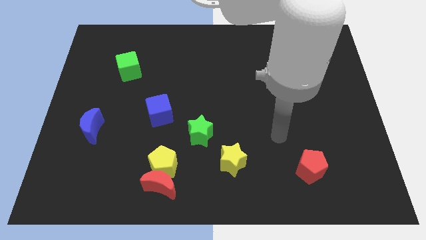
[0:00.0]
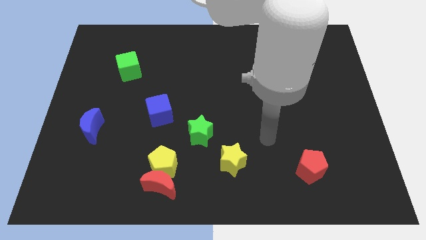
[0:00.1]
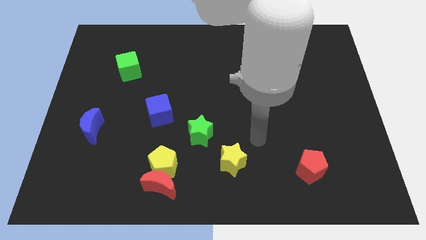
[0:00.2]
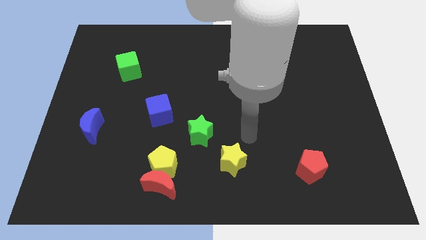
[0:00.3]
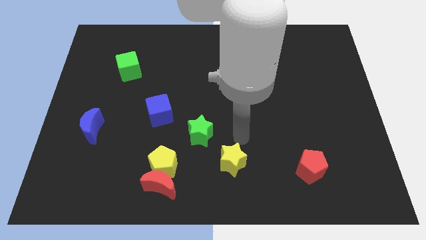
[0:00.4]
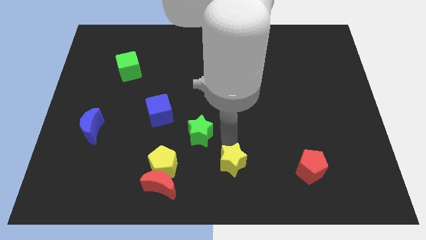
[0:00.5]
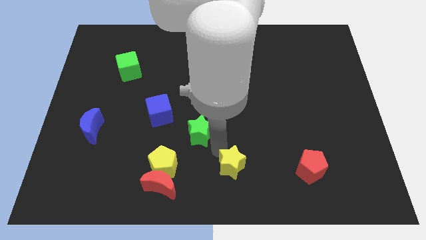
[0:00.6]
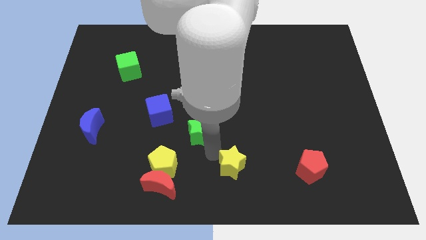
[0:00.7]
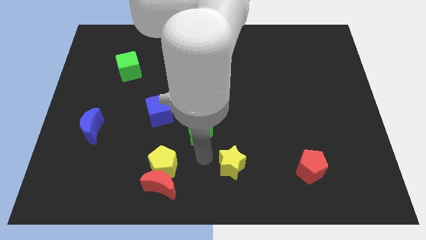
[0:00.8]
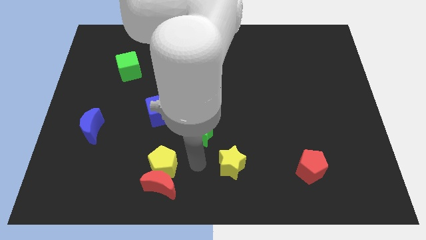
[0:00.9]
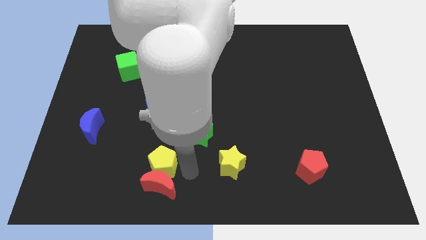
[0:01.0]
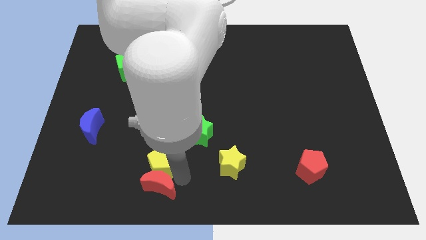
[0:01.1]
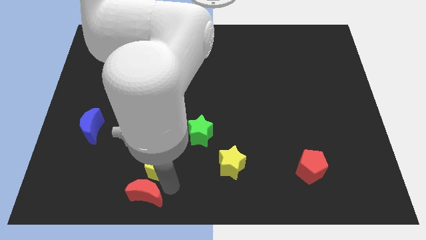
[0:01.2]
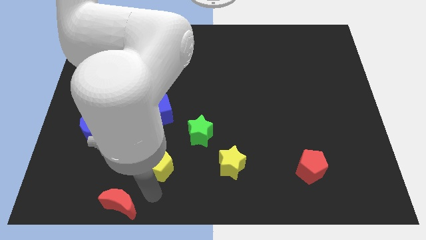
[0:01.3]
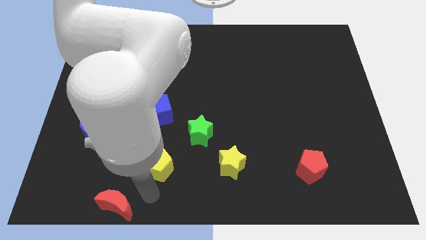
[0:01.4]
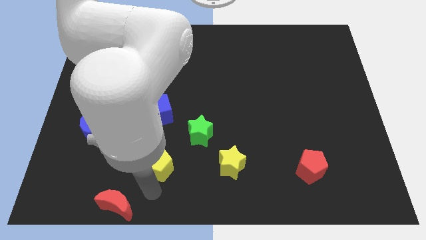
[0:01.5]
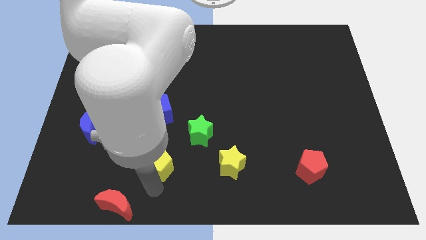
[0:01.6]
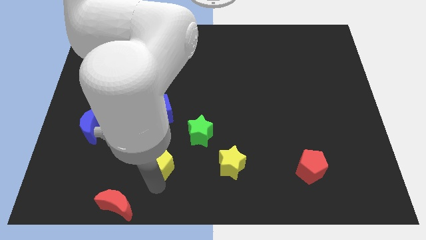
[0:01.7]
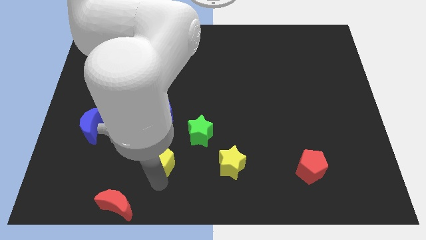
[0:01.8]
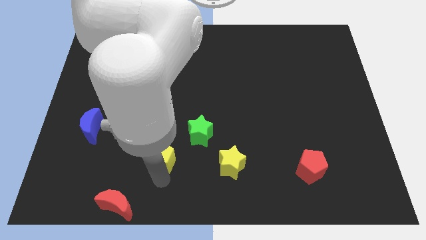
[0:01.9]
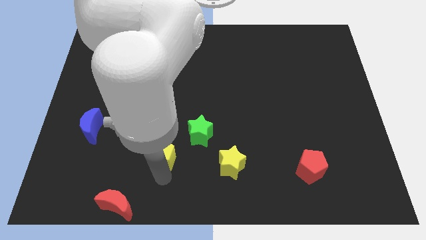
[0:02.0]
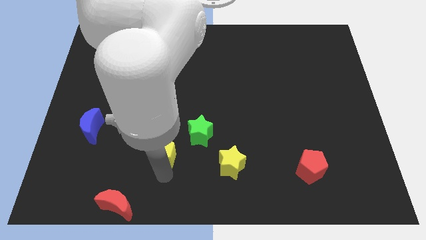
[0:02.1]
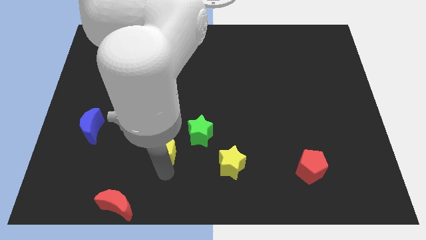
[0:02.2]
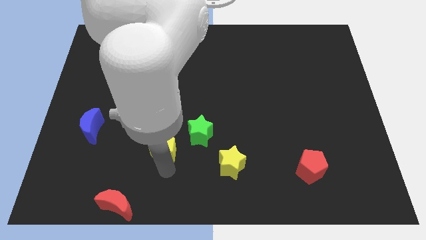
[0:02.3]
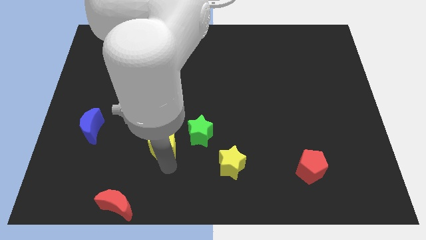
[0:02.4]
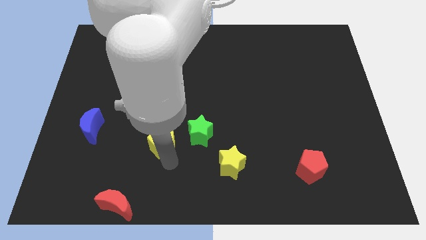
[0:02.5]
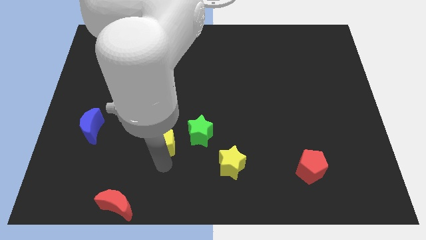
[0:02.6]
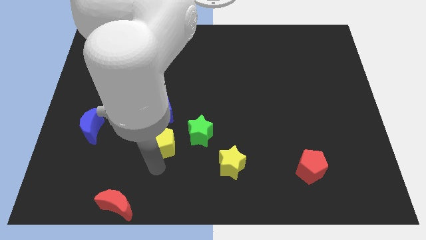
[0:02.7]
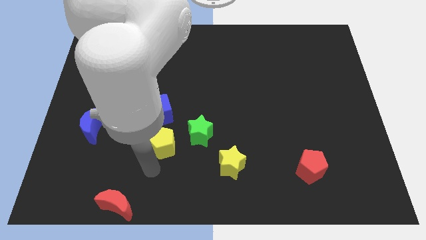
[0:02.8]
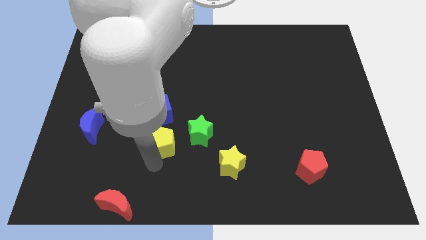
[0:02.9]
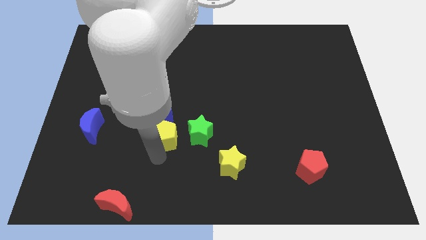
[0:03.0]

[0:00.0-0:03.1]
push the yellow pentagon a little bit upwards

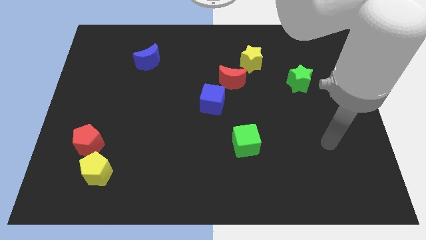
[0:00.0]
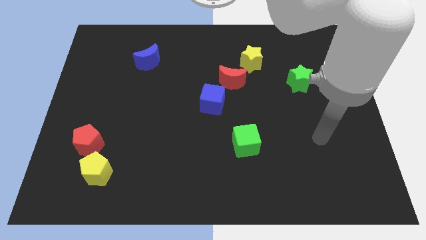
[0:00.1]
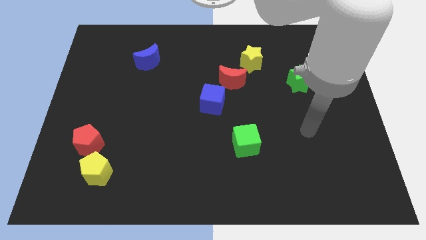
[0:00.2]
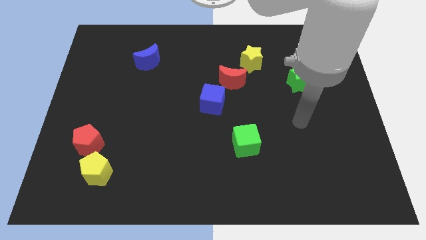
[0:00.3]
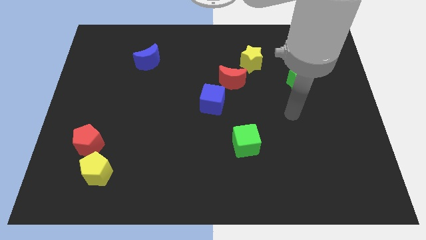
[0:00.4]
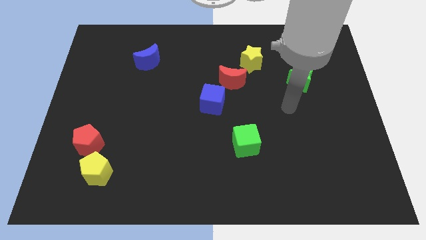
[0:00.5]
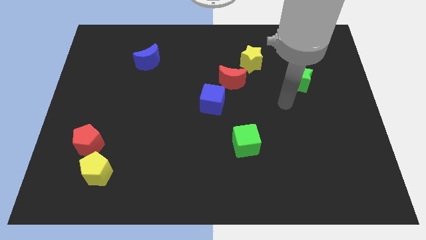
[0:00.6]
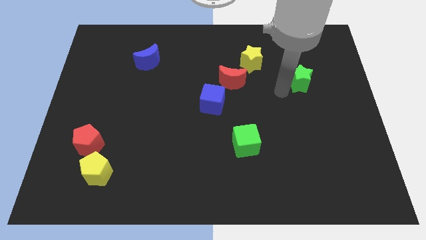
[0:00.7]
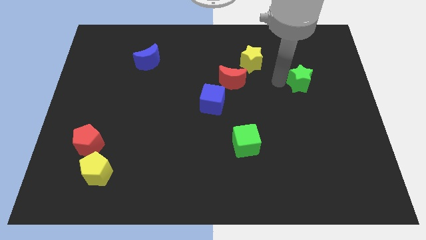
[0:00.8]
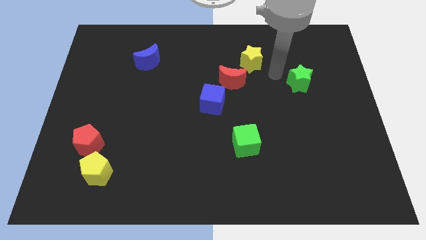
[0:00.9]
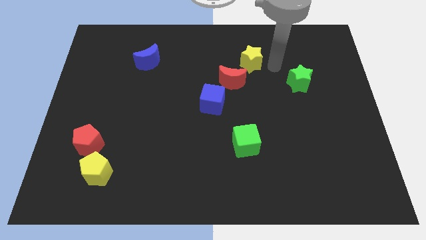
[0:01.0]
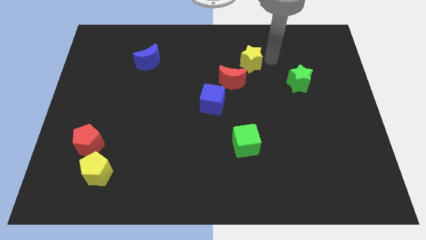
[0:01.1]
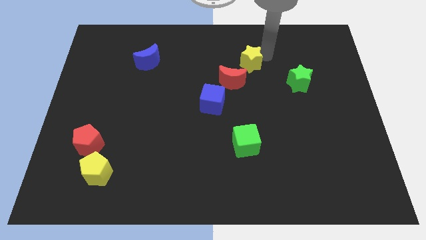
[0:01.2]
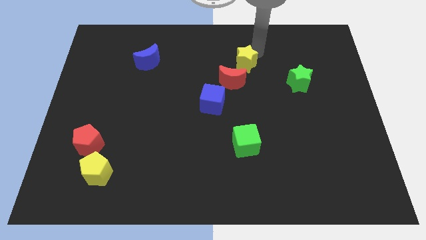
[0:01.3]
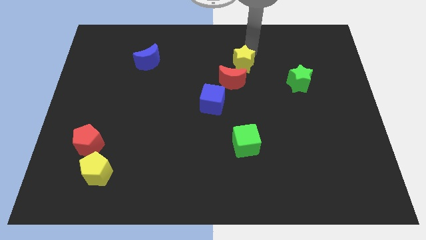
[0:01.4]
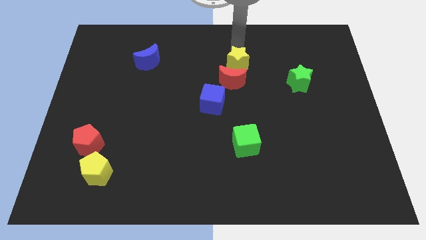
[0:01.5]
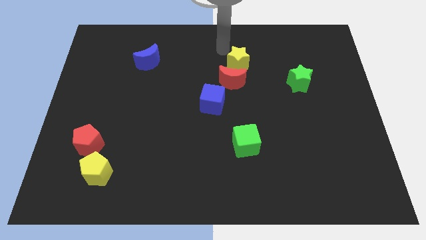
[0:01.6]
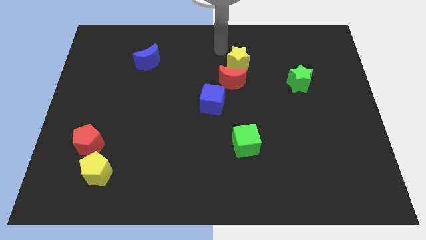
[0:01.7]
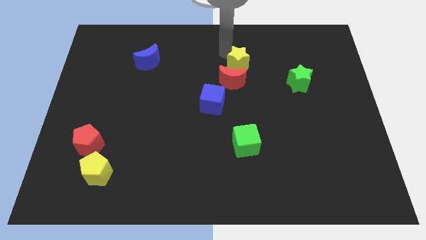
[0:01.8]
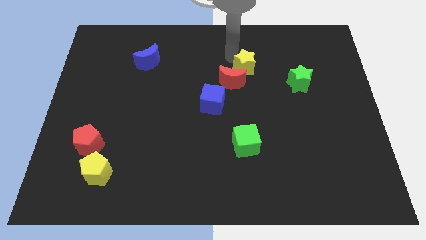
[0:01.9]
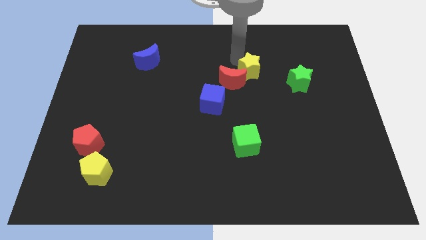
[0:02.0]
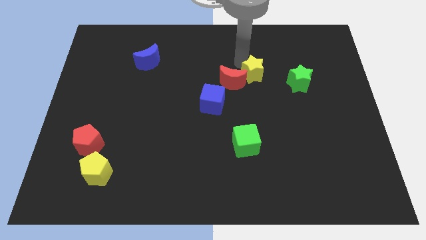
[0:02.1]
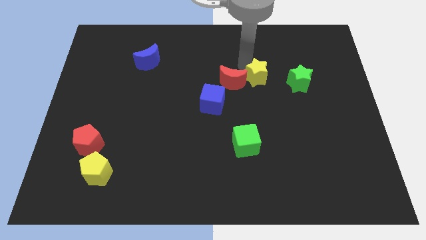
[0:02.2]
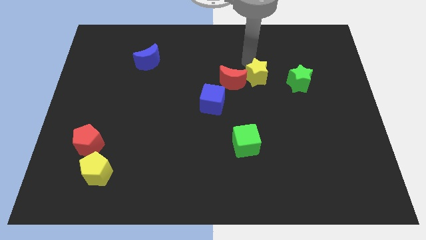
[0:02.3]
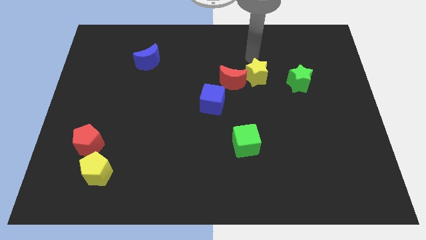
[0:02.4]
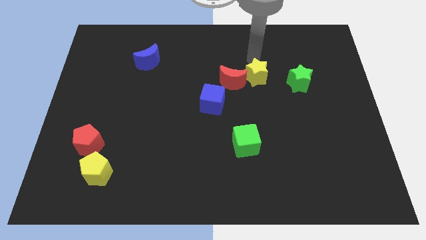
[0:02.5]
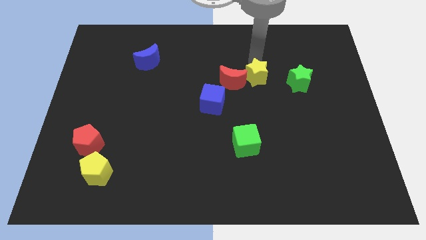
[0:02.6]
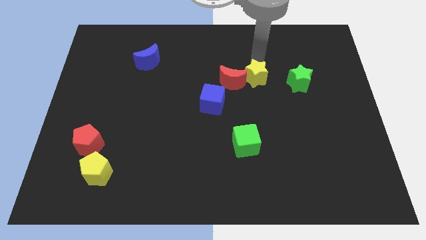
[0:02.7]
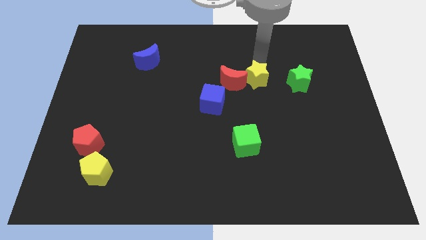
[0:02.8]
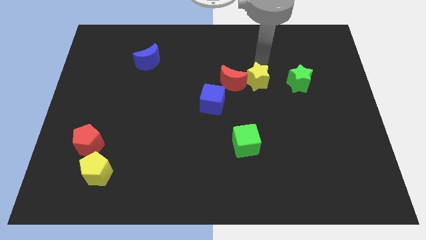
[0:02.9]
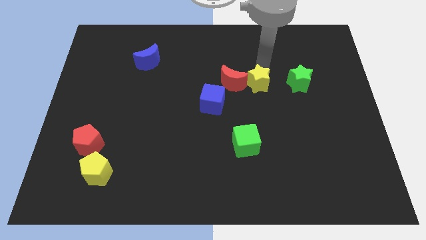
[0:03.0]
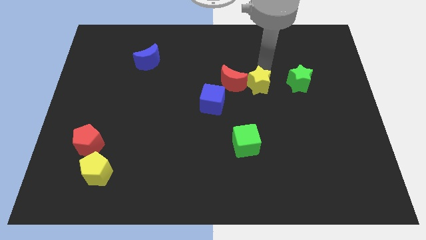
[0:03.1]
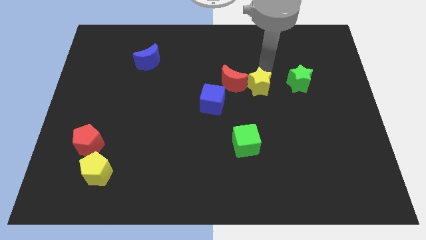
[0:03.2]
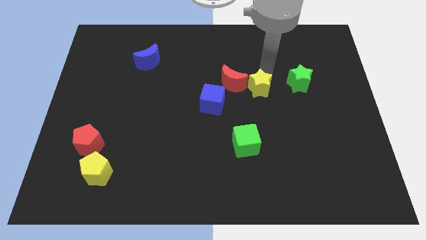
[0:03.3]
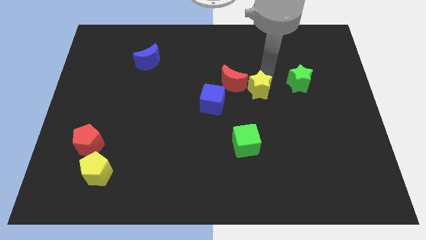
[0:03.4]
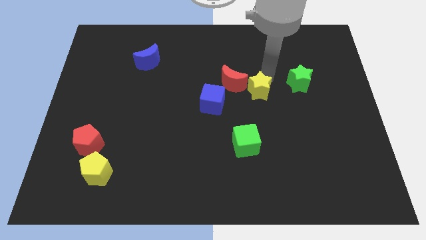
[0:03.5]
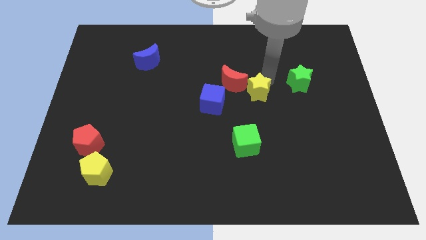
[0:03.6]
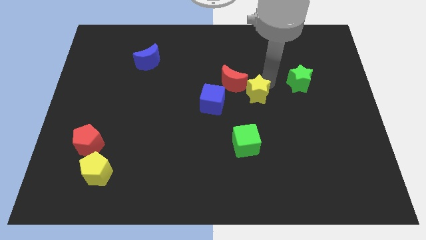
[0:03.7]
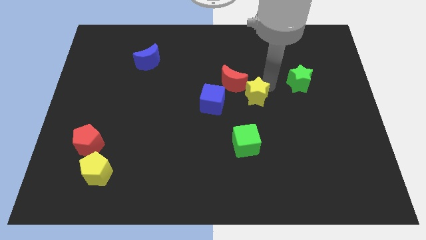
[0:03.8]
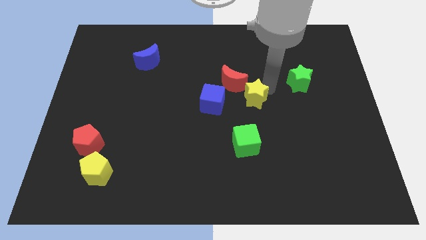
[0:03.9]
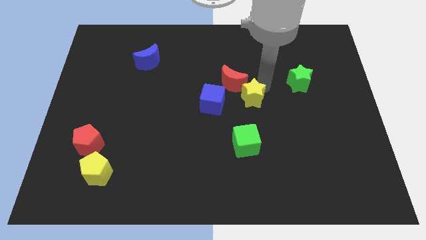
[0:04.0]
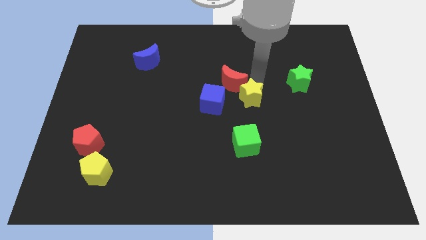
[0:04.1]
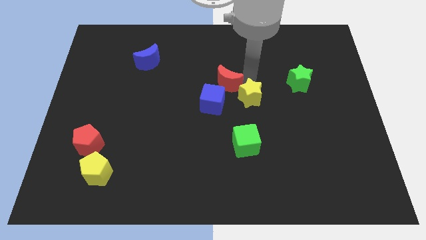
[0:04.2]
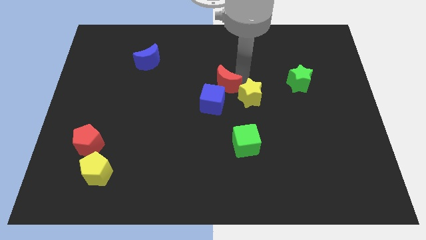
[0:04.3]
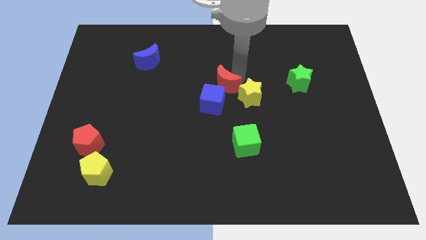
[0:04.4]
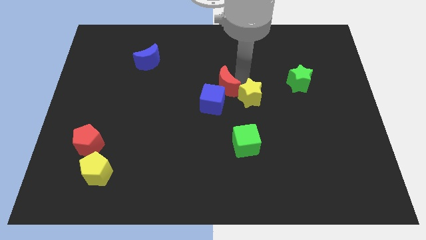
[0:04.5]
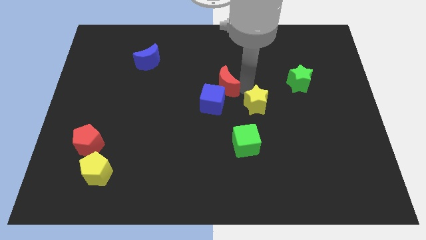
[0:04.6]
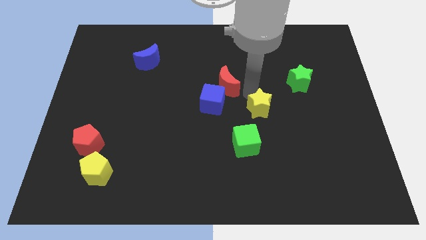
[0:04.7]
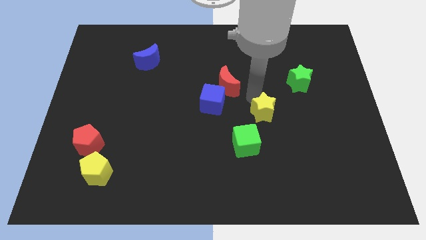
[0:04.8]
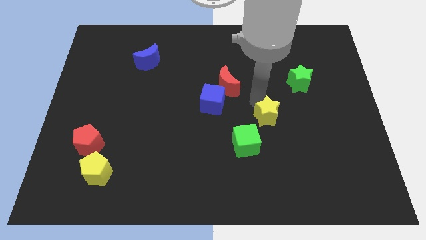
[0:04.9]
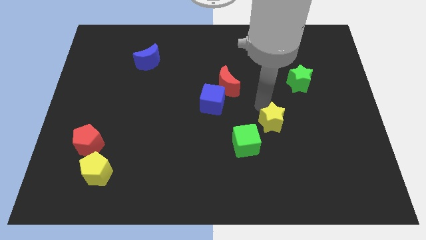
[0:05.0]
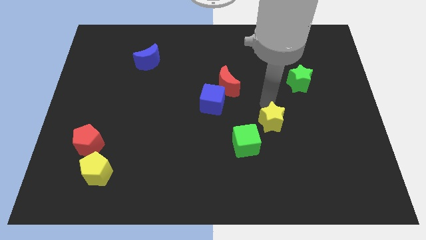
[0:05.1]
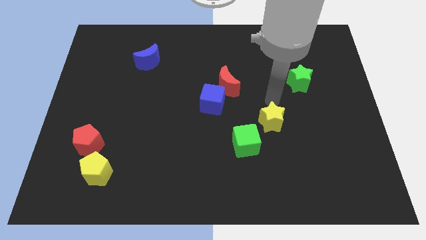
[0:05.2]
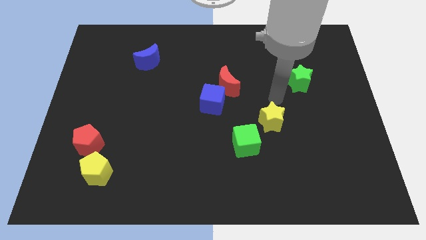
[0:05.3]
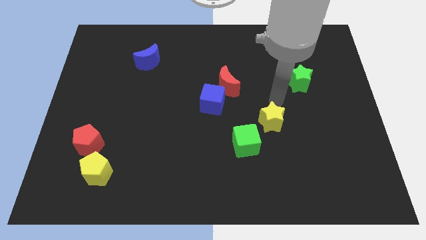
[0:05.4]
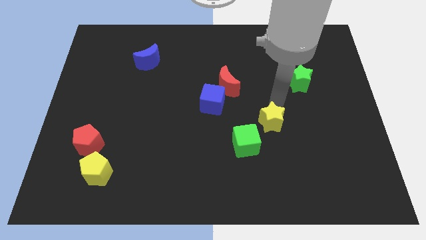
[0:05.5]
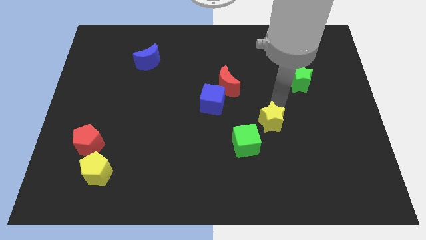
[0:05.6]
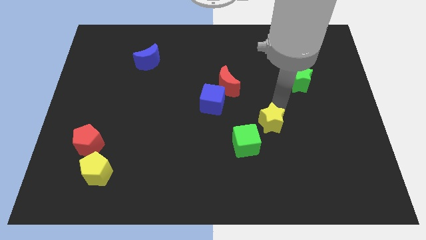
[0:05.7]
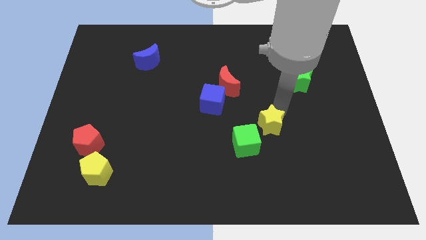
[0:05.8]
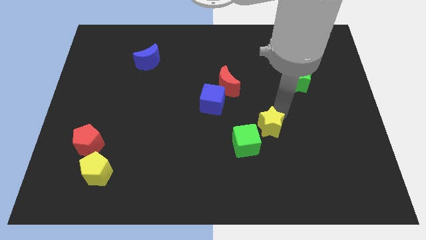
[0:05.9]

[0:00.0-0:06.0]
push the yellow star down
